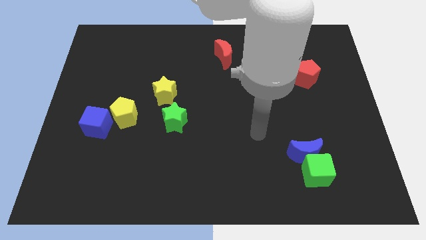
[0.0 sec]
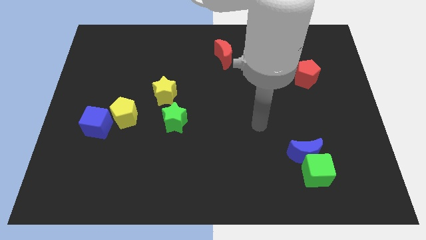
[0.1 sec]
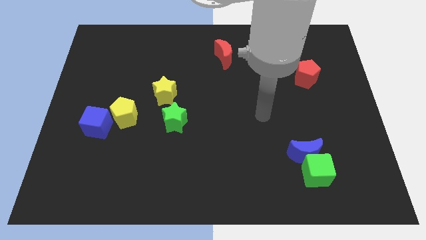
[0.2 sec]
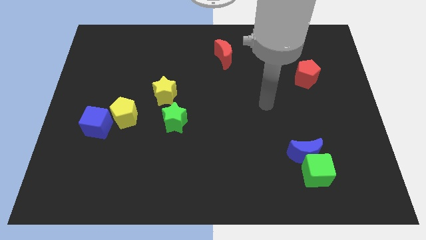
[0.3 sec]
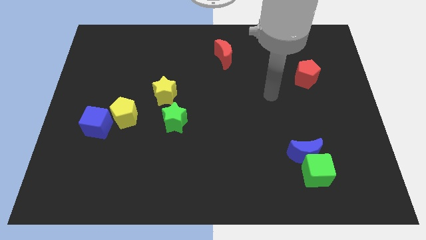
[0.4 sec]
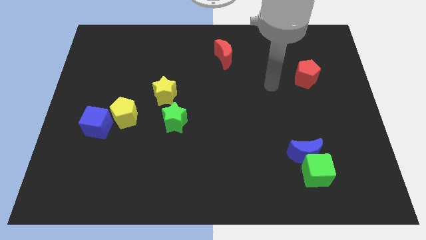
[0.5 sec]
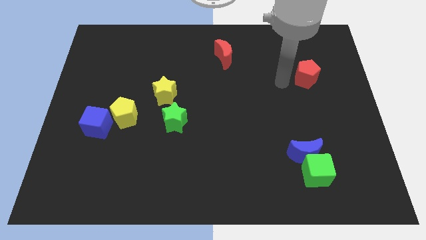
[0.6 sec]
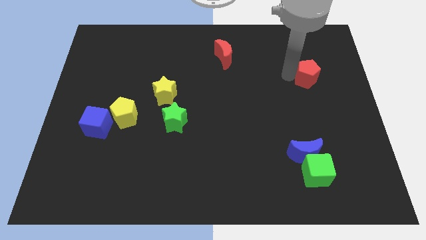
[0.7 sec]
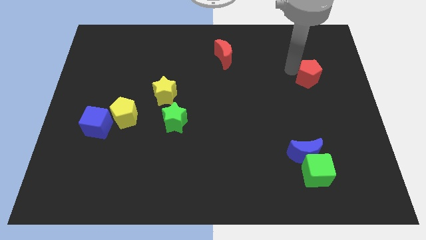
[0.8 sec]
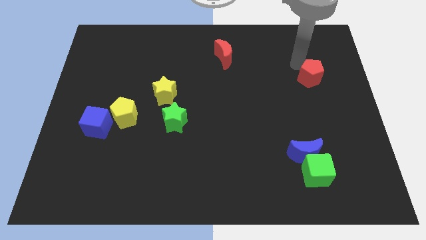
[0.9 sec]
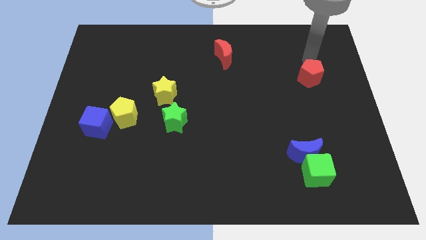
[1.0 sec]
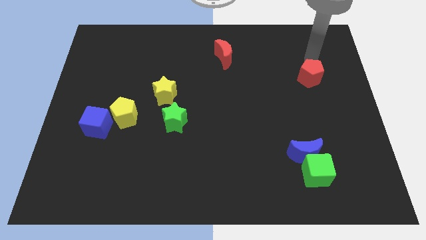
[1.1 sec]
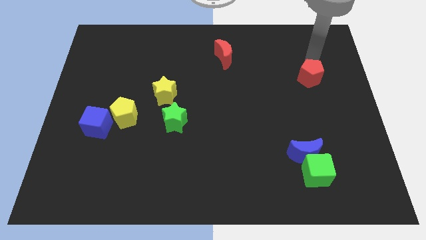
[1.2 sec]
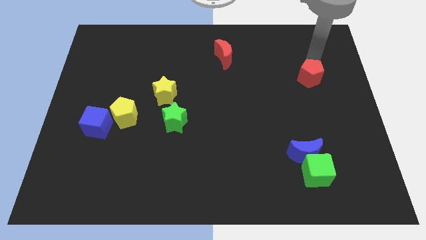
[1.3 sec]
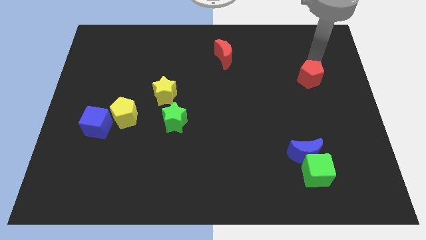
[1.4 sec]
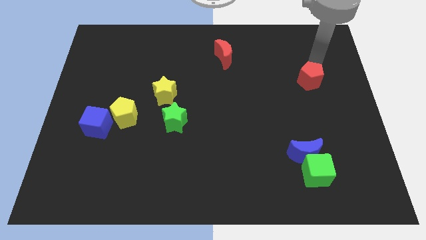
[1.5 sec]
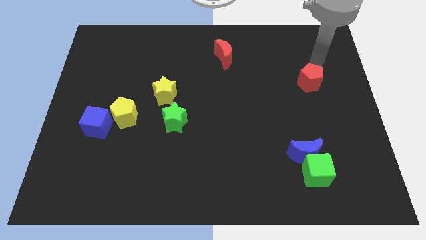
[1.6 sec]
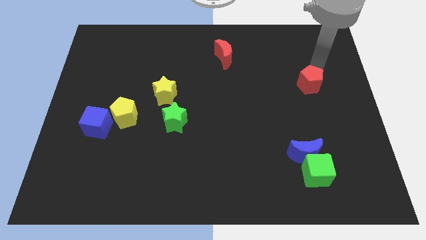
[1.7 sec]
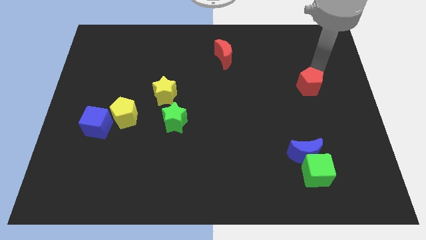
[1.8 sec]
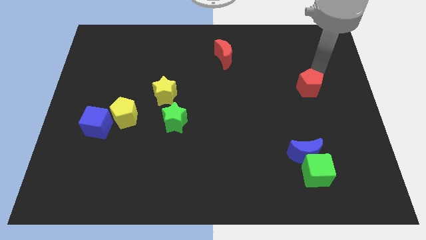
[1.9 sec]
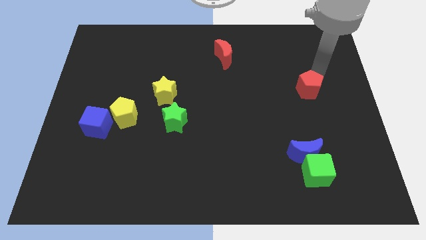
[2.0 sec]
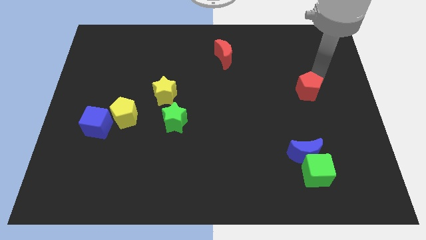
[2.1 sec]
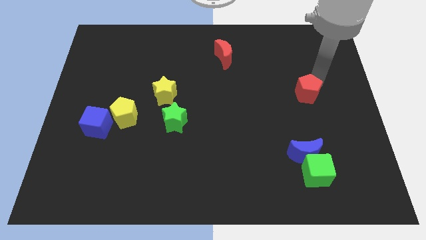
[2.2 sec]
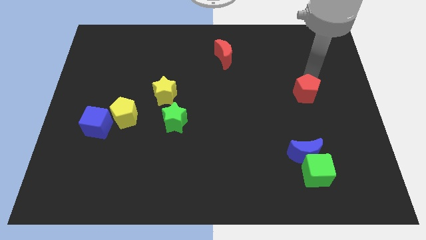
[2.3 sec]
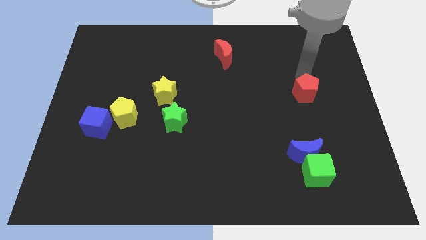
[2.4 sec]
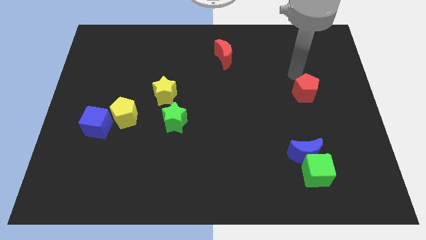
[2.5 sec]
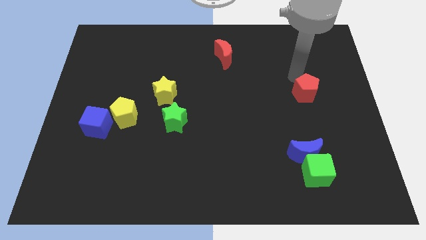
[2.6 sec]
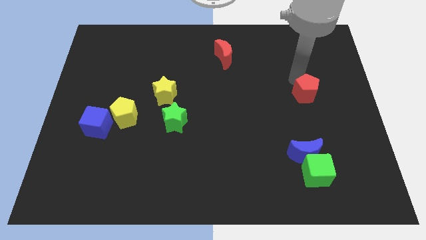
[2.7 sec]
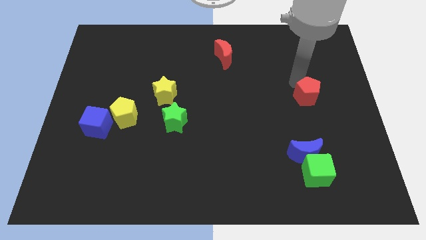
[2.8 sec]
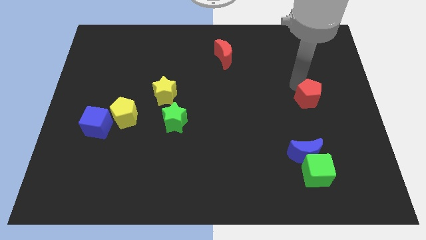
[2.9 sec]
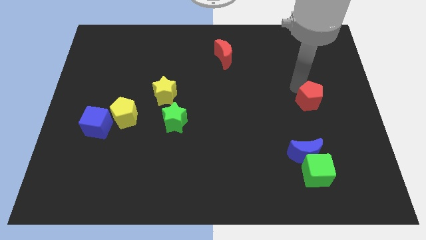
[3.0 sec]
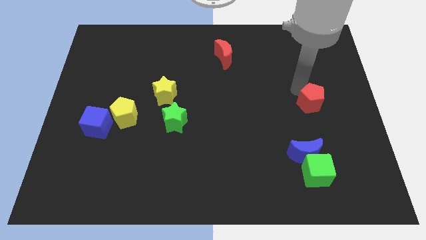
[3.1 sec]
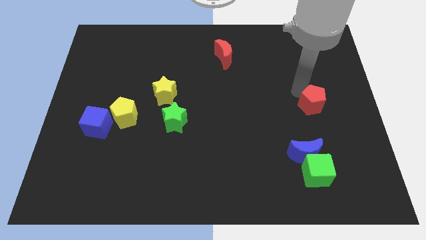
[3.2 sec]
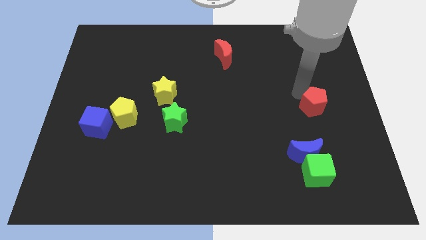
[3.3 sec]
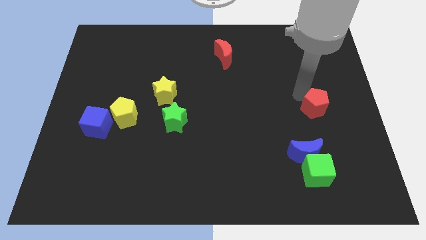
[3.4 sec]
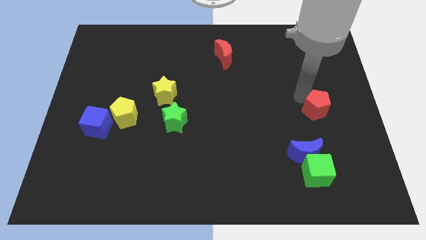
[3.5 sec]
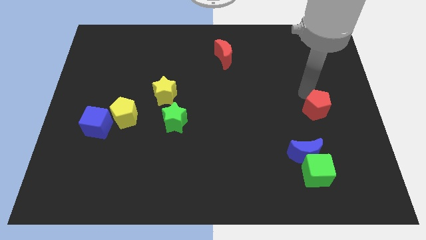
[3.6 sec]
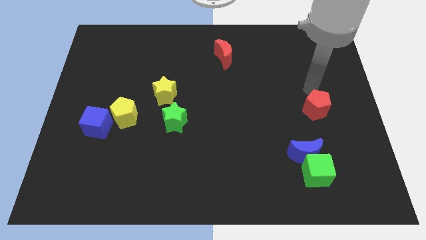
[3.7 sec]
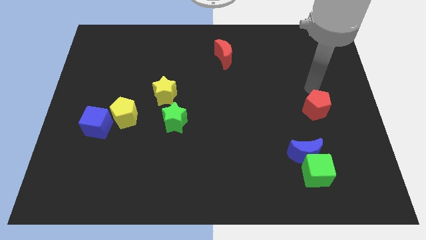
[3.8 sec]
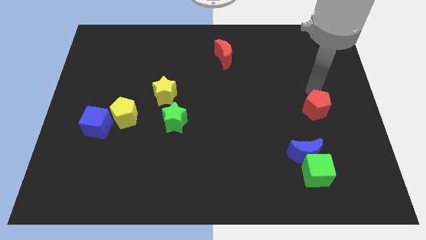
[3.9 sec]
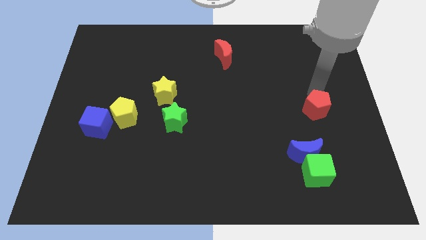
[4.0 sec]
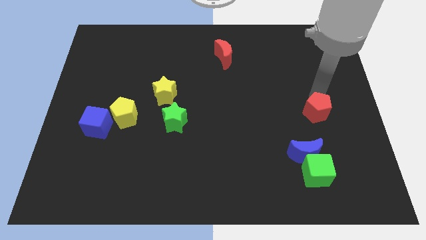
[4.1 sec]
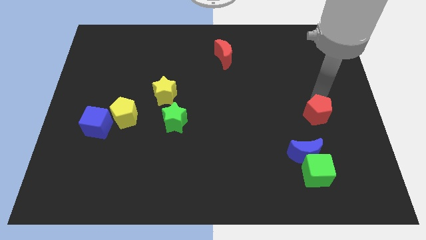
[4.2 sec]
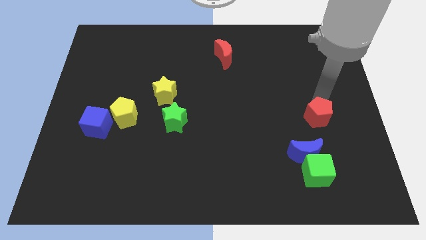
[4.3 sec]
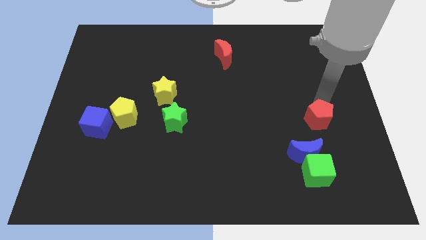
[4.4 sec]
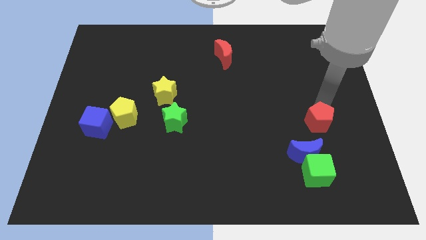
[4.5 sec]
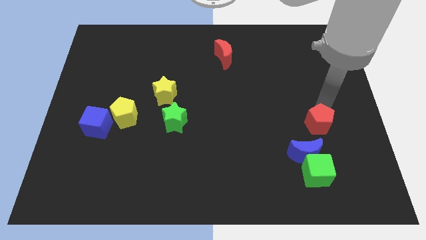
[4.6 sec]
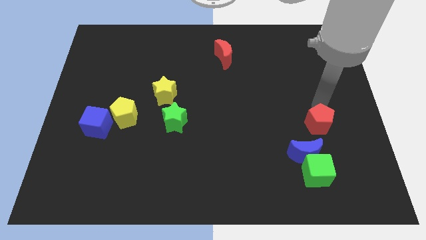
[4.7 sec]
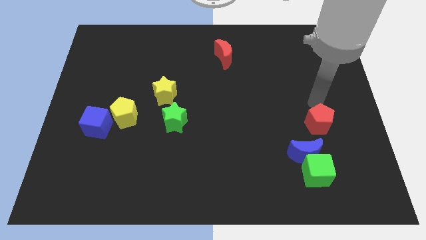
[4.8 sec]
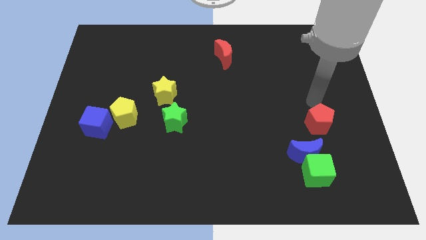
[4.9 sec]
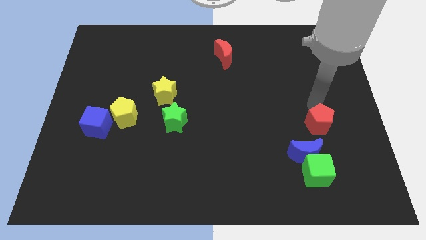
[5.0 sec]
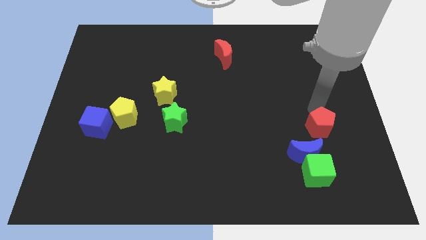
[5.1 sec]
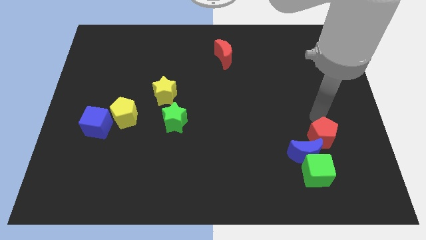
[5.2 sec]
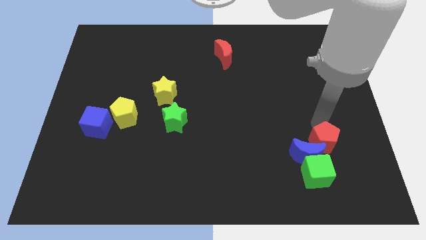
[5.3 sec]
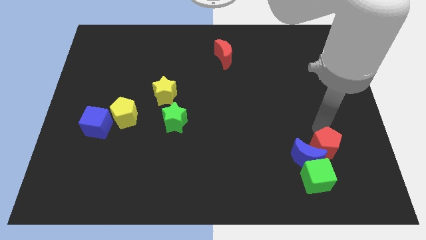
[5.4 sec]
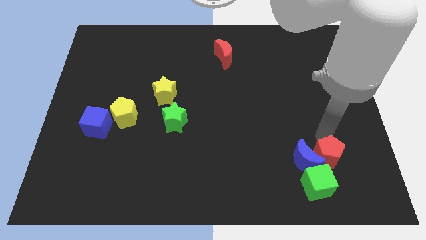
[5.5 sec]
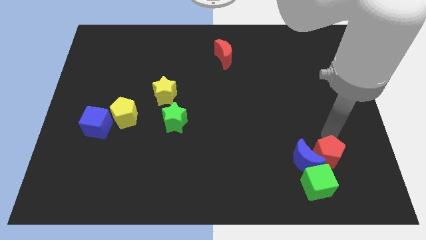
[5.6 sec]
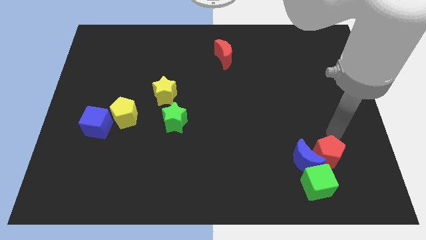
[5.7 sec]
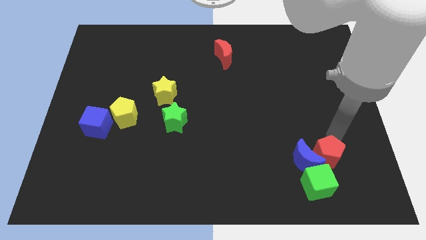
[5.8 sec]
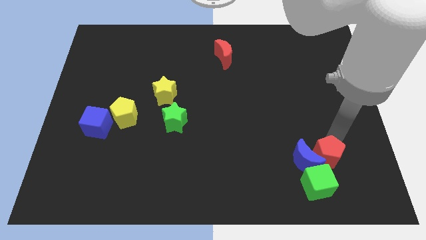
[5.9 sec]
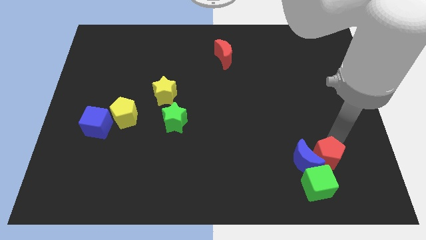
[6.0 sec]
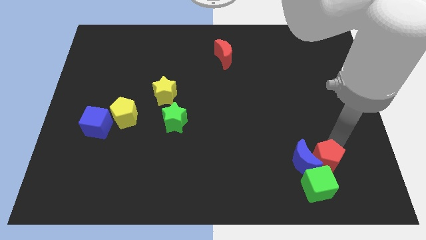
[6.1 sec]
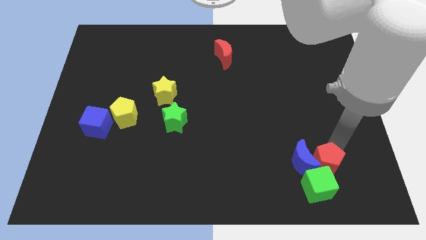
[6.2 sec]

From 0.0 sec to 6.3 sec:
put the red pentagon close to the green cube

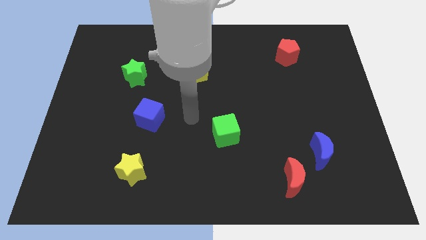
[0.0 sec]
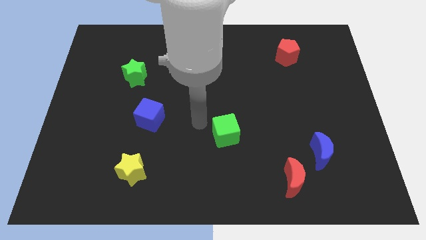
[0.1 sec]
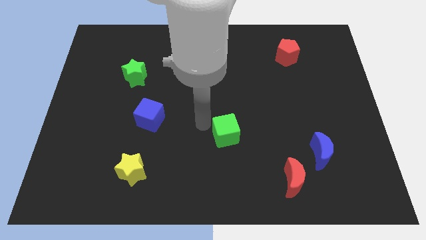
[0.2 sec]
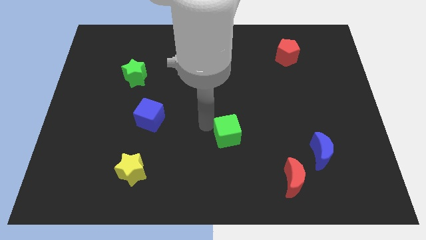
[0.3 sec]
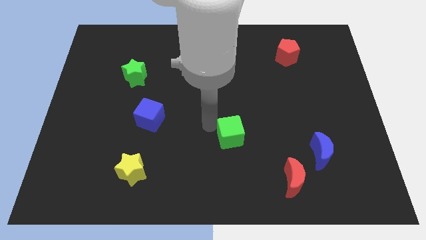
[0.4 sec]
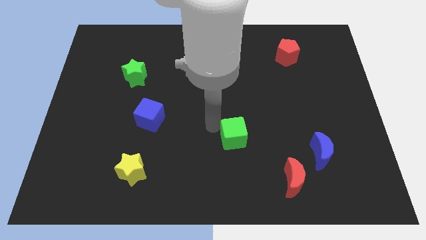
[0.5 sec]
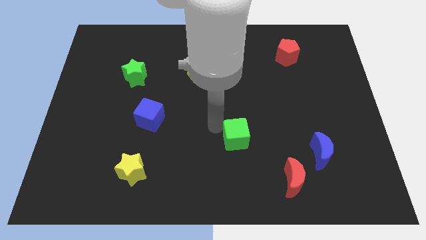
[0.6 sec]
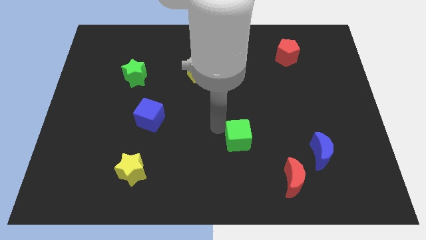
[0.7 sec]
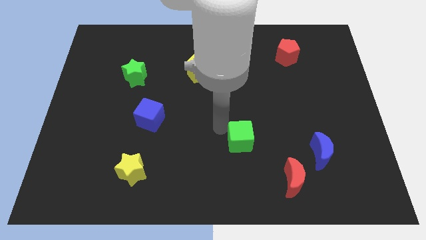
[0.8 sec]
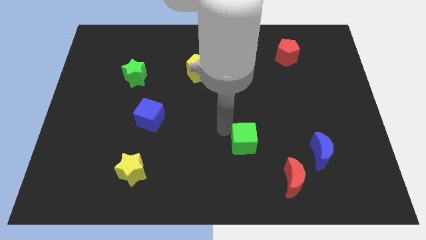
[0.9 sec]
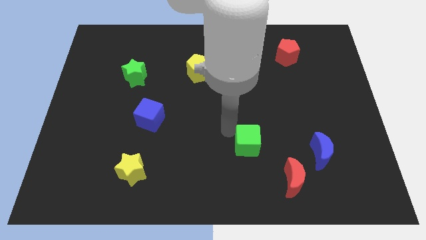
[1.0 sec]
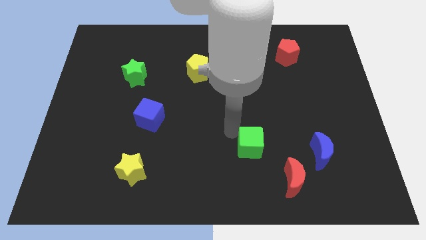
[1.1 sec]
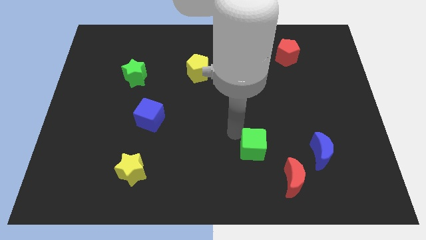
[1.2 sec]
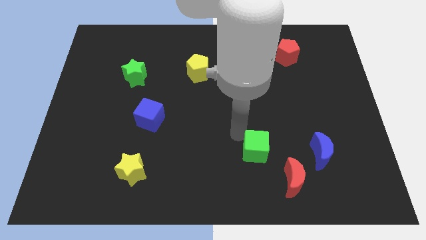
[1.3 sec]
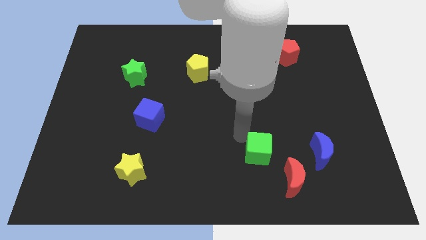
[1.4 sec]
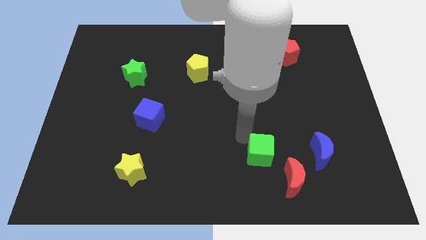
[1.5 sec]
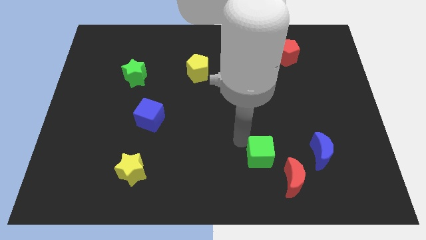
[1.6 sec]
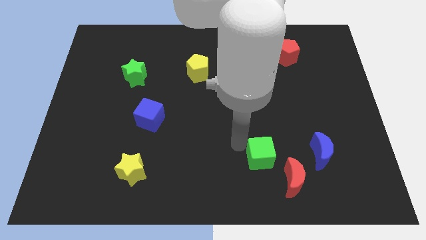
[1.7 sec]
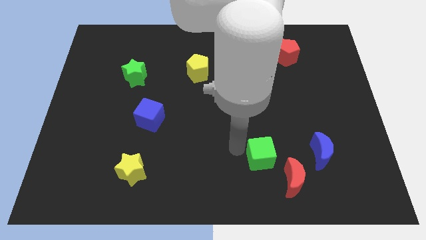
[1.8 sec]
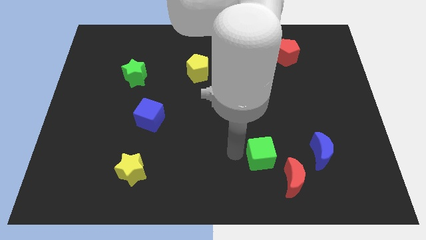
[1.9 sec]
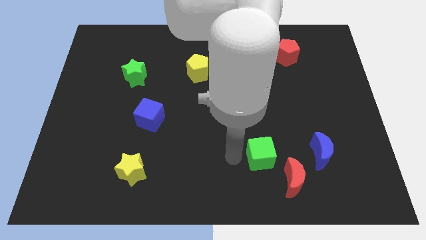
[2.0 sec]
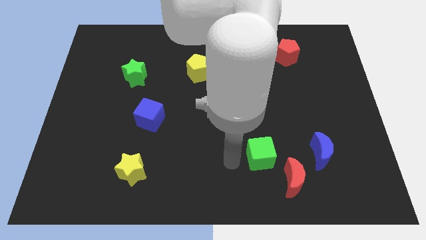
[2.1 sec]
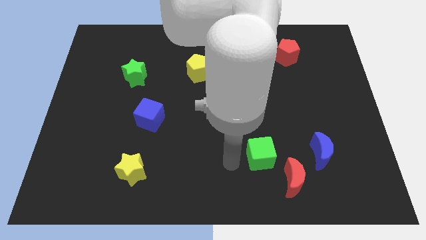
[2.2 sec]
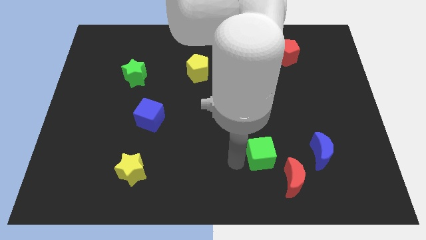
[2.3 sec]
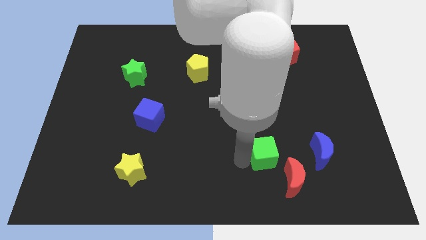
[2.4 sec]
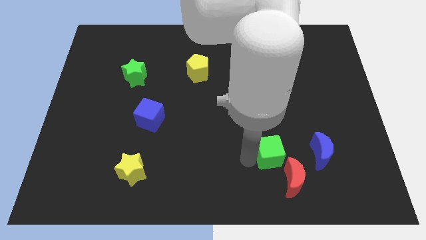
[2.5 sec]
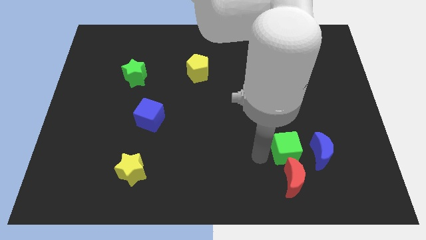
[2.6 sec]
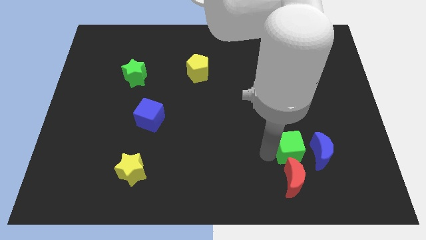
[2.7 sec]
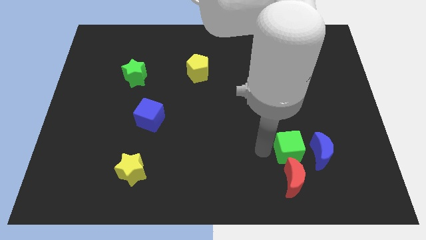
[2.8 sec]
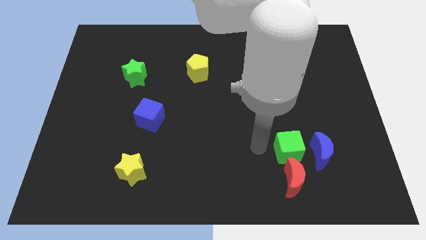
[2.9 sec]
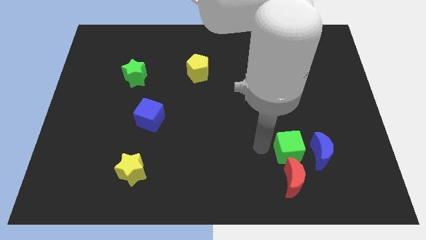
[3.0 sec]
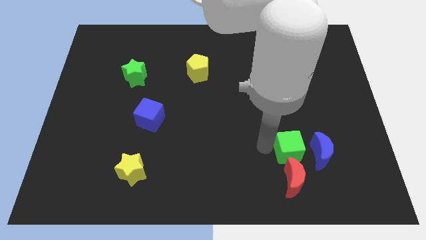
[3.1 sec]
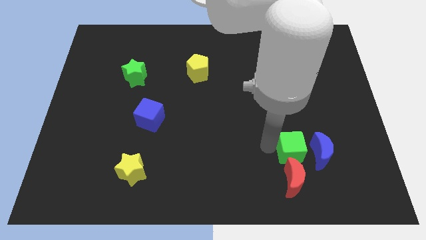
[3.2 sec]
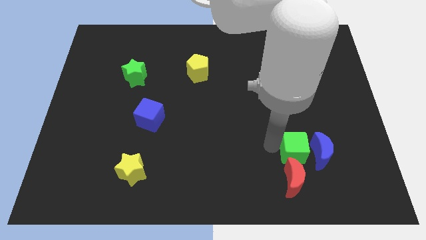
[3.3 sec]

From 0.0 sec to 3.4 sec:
slide the green cube next to the blue moon
